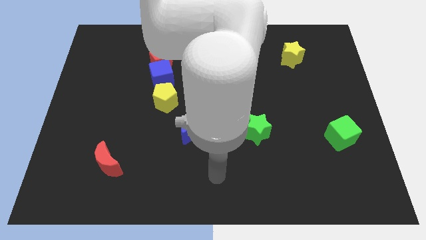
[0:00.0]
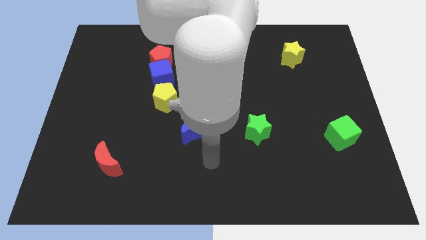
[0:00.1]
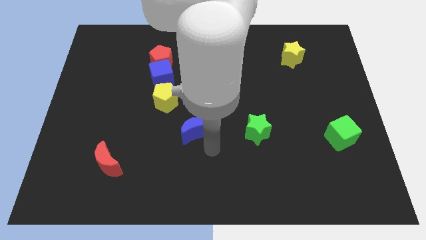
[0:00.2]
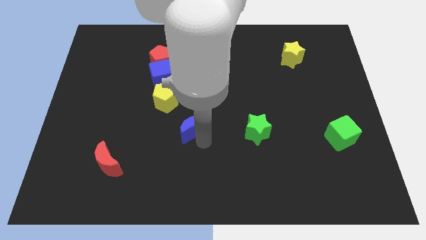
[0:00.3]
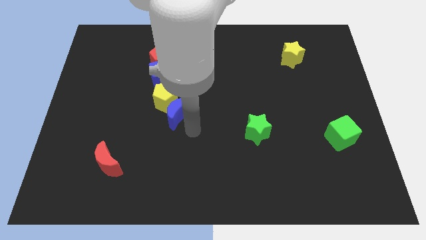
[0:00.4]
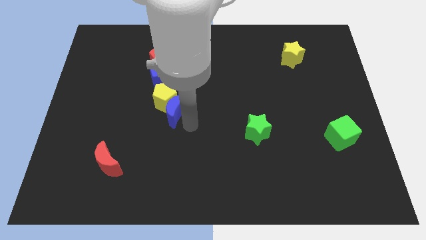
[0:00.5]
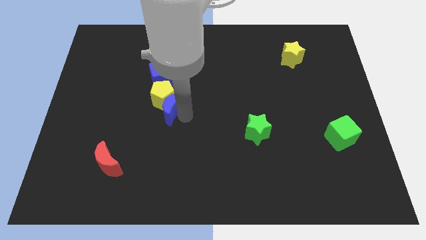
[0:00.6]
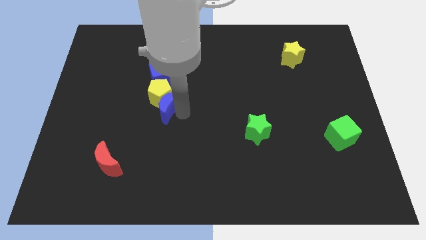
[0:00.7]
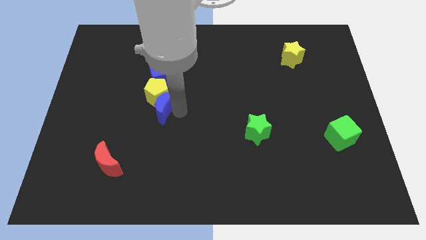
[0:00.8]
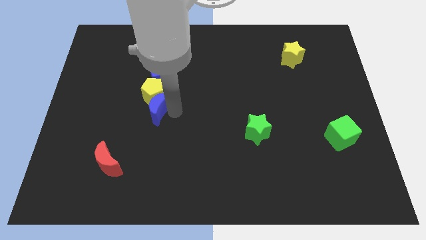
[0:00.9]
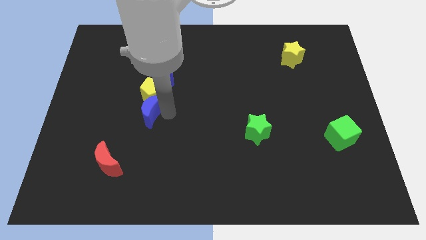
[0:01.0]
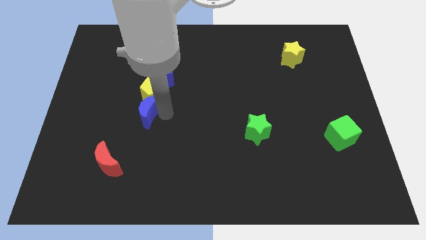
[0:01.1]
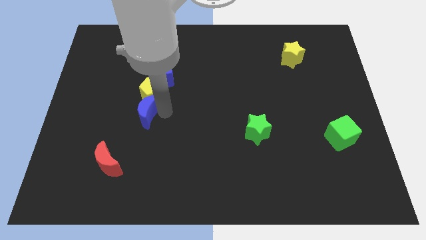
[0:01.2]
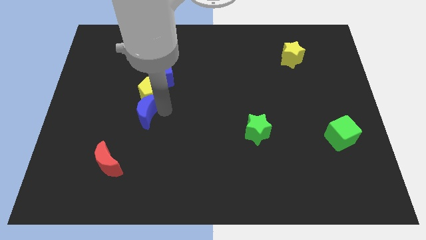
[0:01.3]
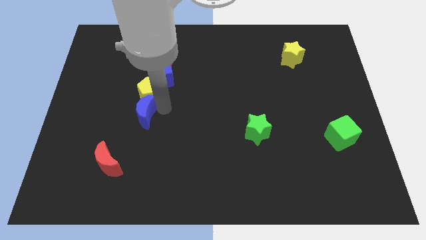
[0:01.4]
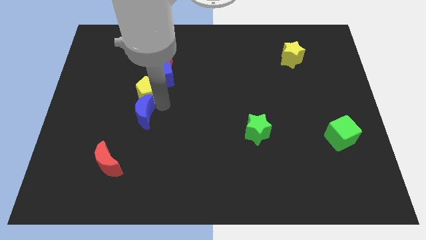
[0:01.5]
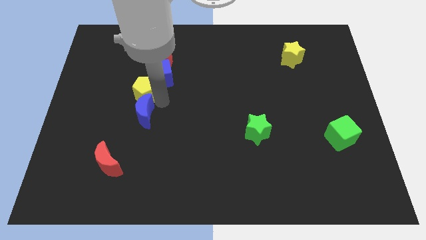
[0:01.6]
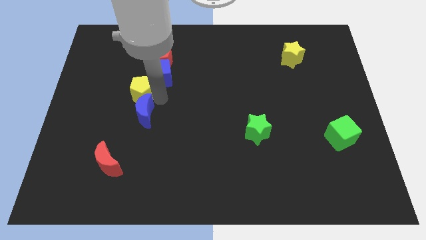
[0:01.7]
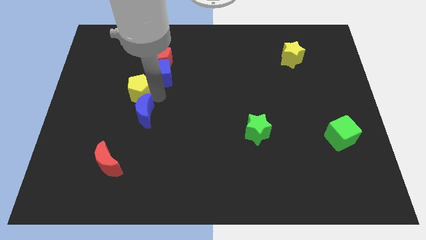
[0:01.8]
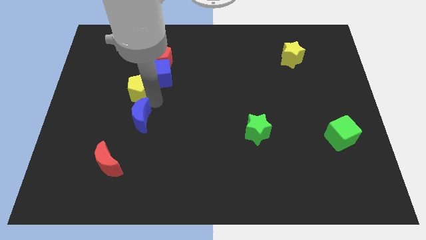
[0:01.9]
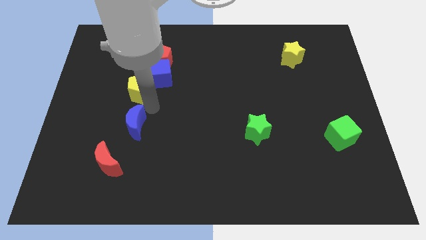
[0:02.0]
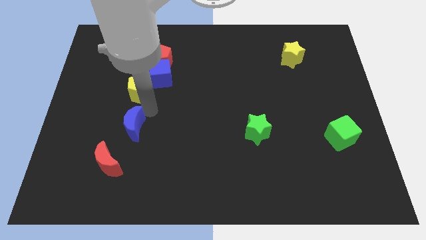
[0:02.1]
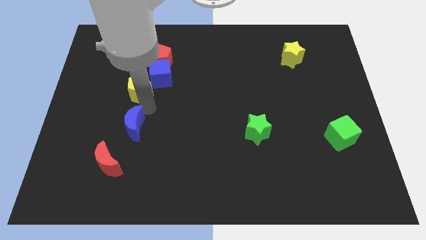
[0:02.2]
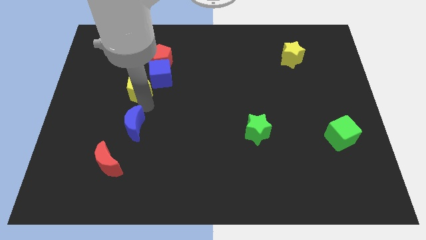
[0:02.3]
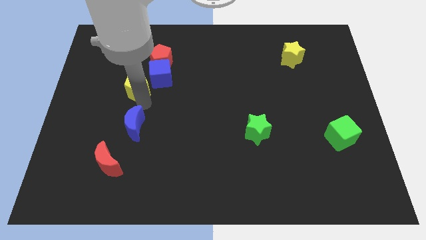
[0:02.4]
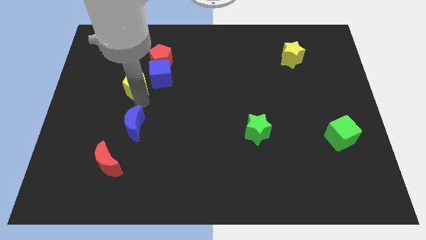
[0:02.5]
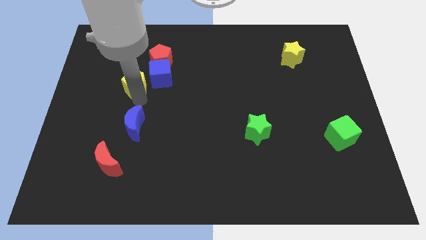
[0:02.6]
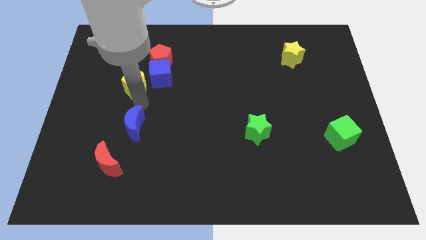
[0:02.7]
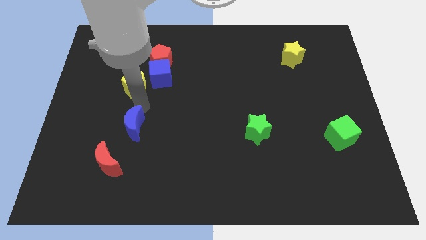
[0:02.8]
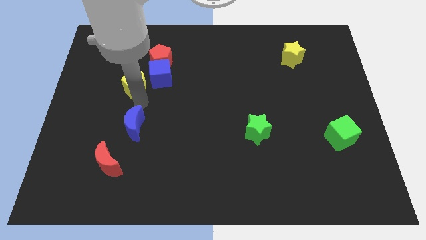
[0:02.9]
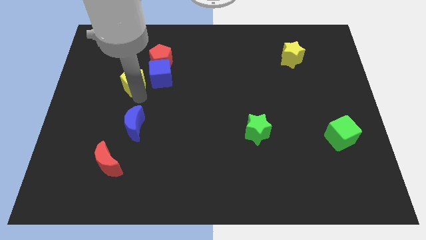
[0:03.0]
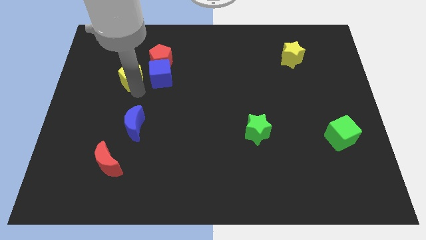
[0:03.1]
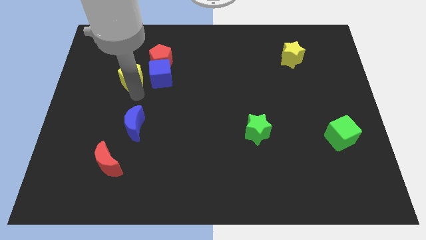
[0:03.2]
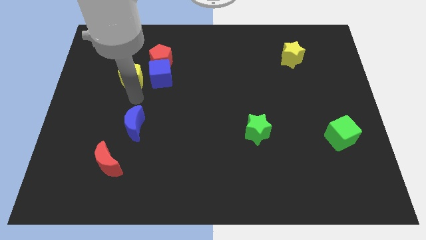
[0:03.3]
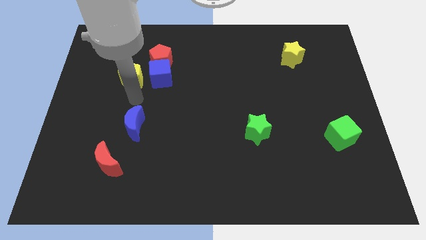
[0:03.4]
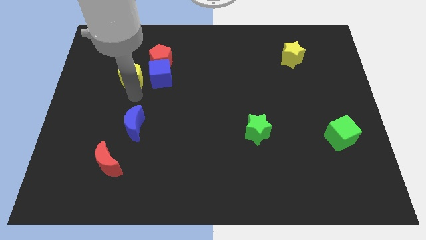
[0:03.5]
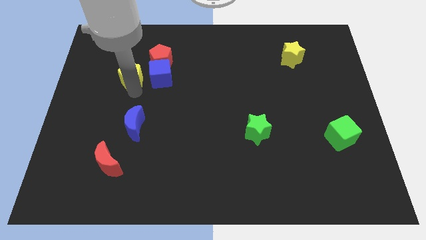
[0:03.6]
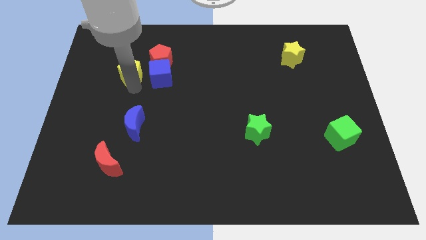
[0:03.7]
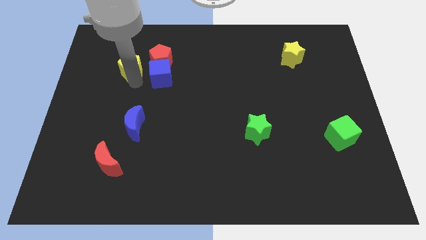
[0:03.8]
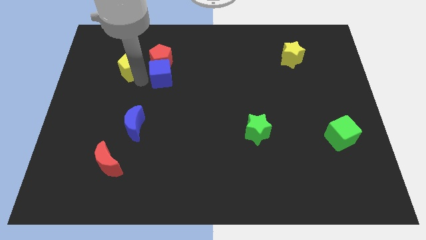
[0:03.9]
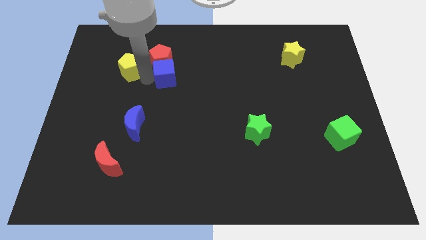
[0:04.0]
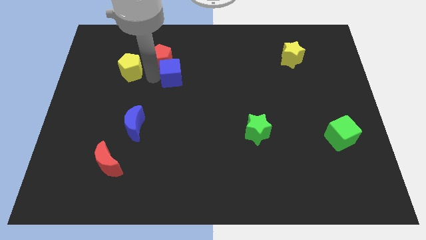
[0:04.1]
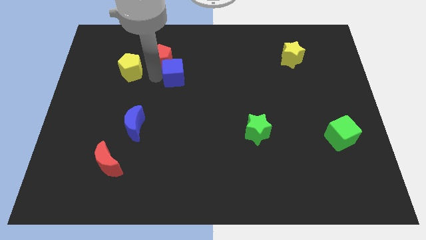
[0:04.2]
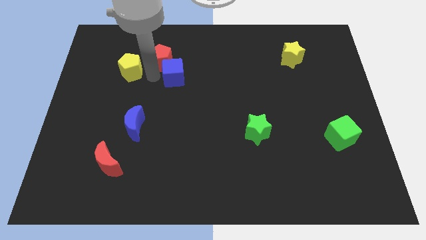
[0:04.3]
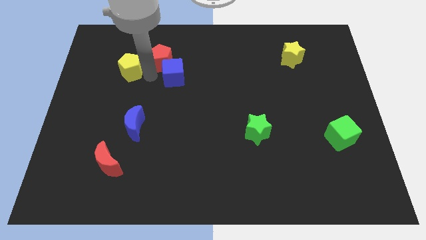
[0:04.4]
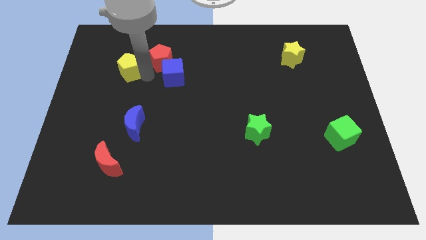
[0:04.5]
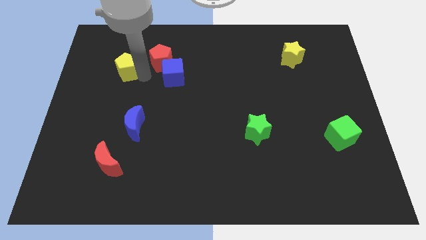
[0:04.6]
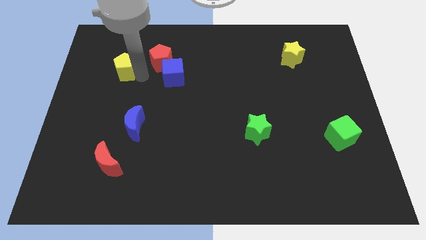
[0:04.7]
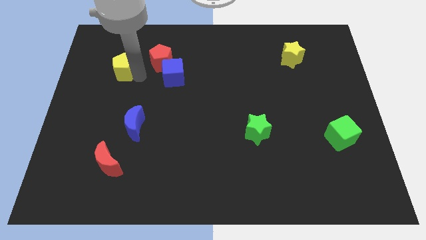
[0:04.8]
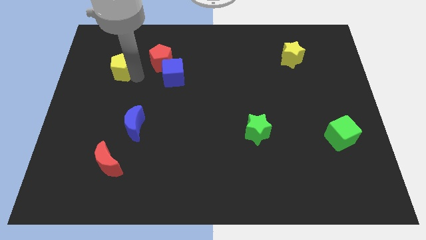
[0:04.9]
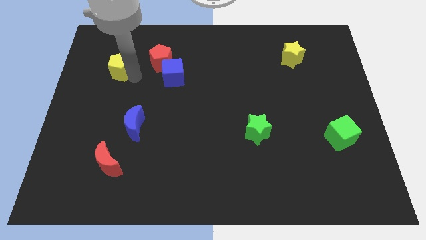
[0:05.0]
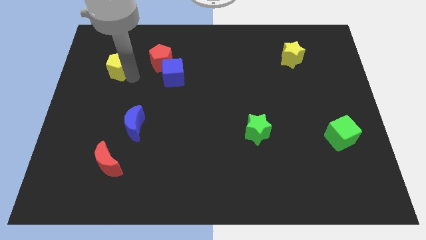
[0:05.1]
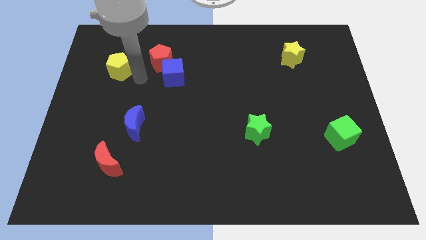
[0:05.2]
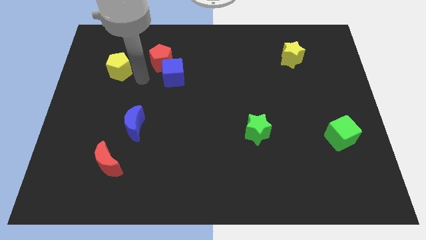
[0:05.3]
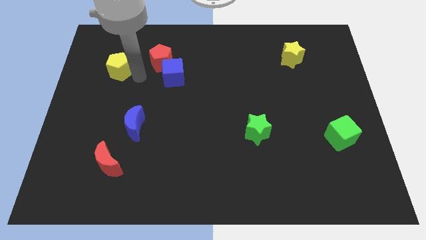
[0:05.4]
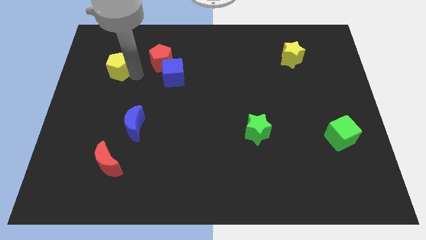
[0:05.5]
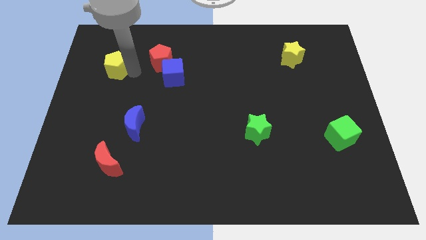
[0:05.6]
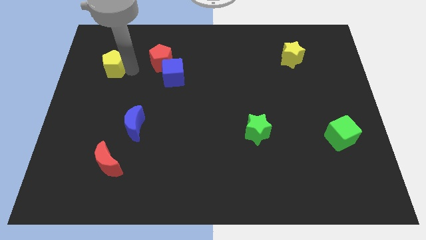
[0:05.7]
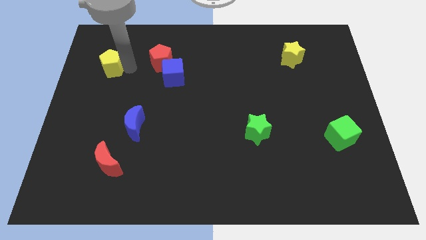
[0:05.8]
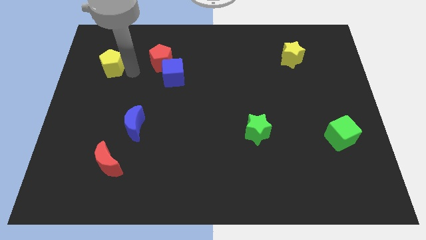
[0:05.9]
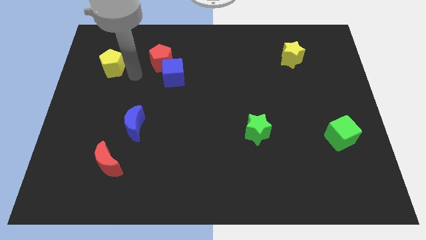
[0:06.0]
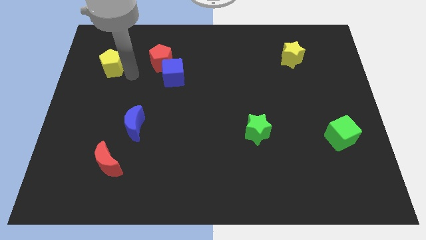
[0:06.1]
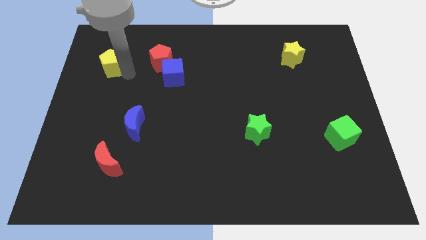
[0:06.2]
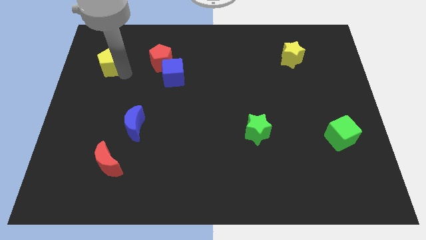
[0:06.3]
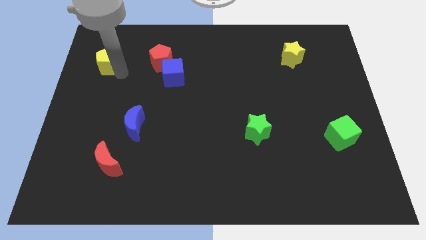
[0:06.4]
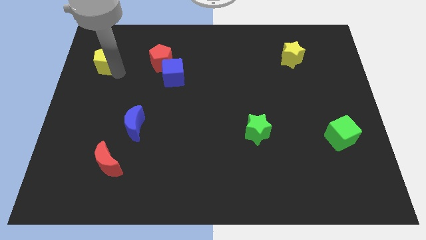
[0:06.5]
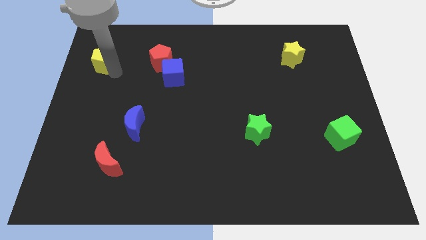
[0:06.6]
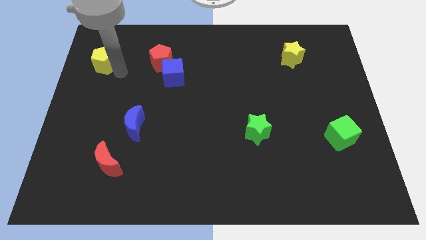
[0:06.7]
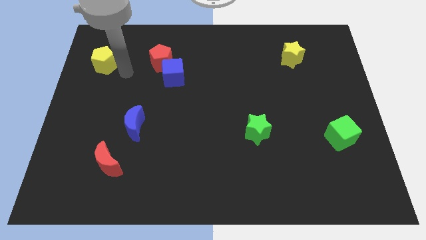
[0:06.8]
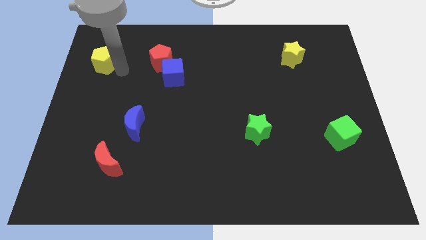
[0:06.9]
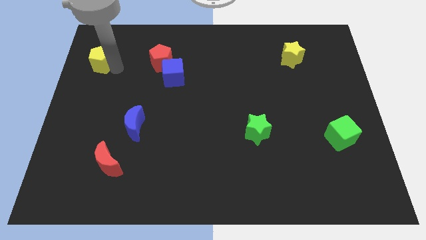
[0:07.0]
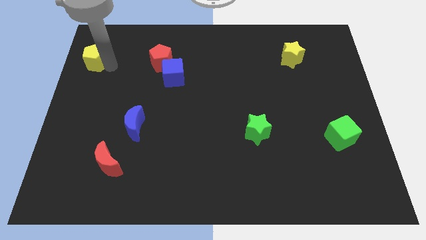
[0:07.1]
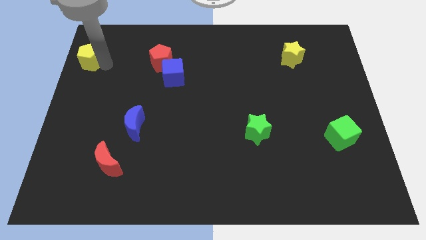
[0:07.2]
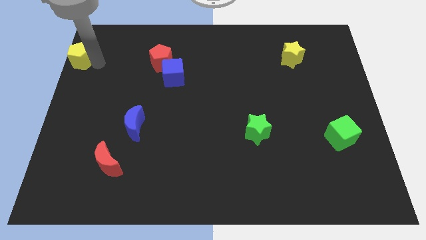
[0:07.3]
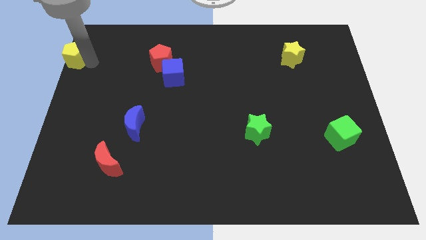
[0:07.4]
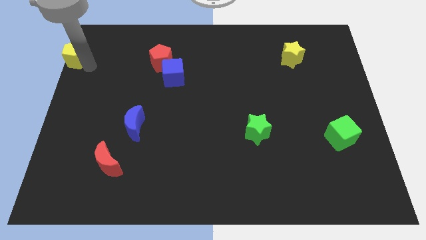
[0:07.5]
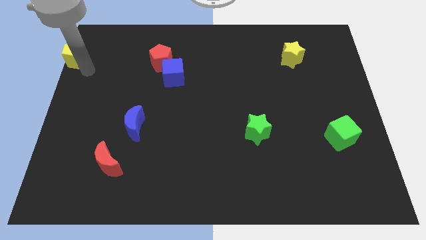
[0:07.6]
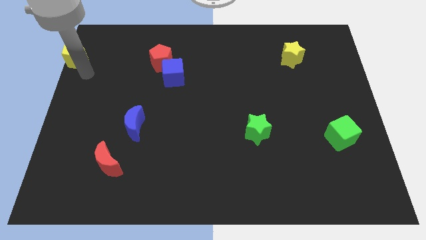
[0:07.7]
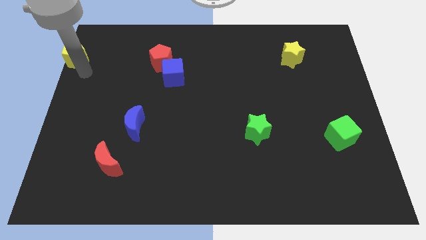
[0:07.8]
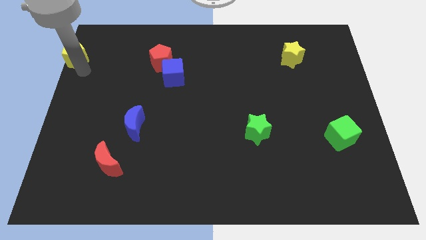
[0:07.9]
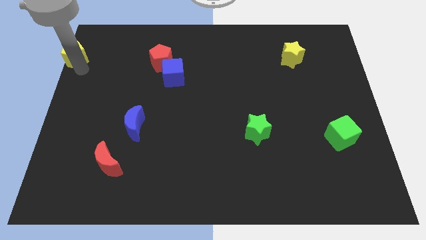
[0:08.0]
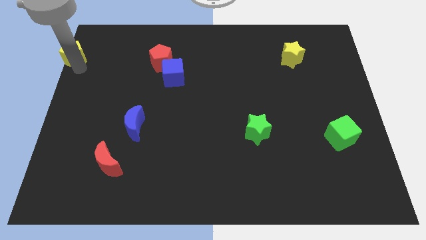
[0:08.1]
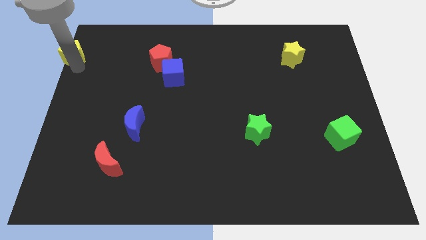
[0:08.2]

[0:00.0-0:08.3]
push the yellow pentagon to the top left corner
